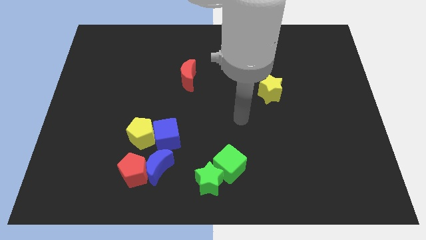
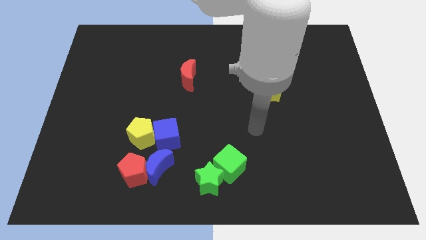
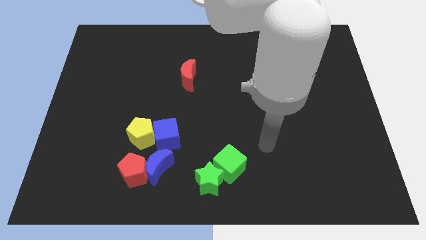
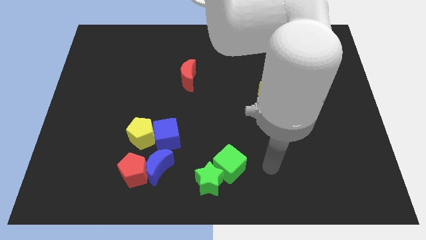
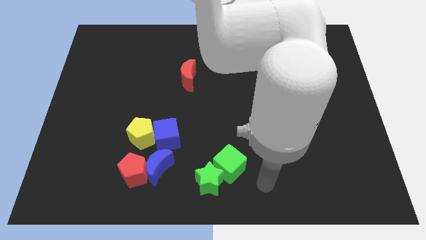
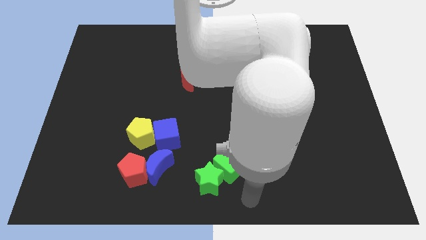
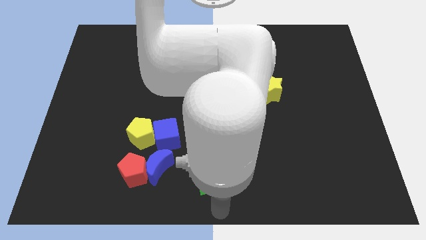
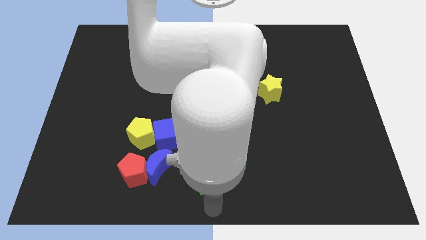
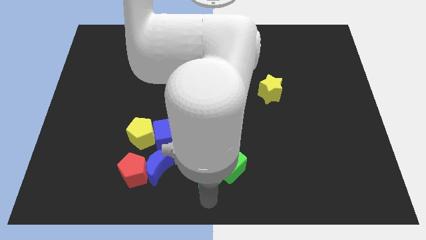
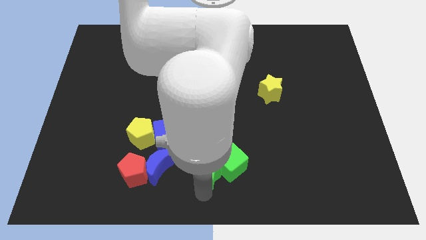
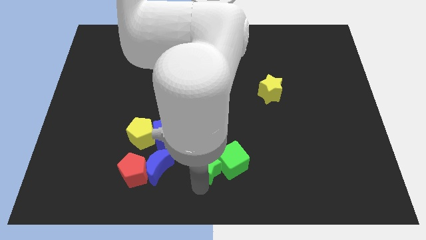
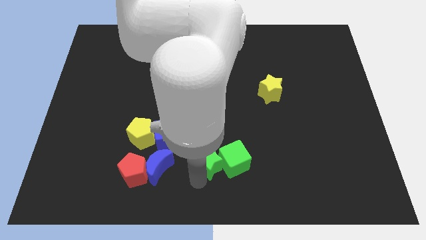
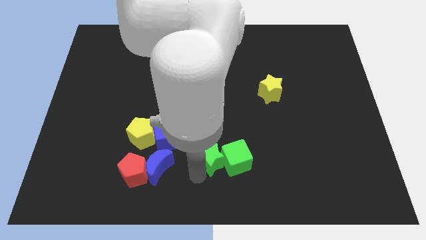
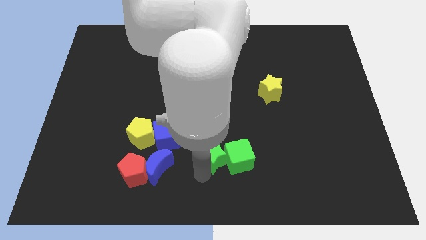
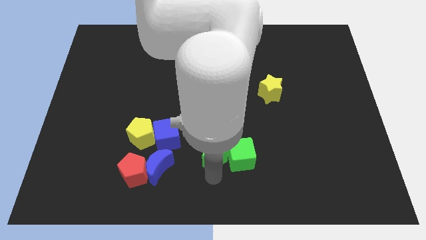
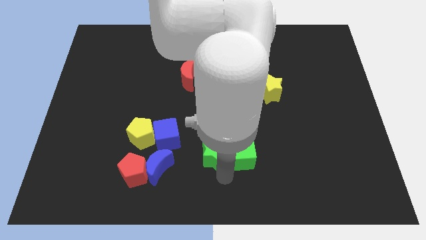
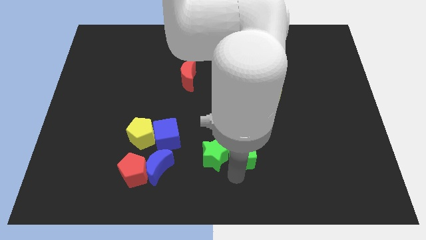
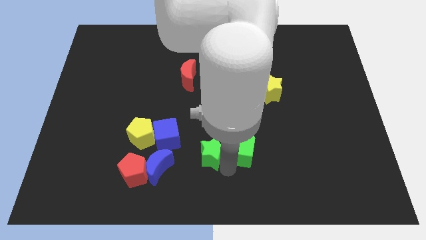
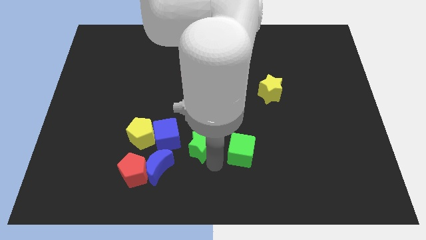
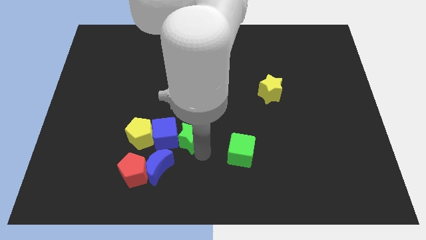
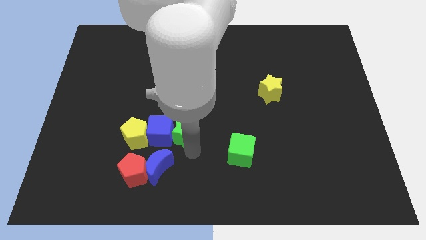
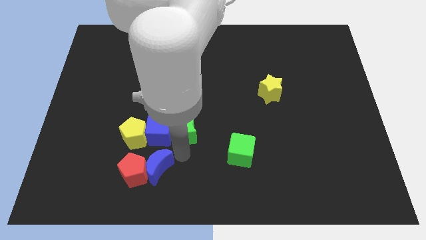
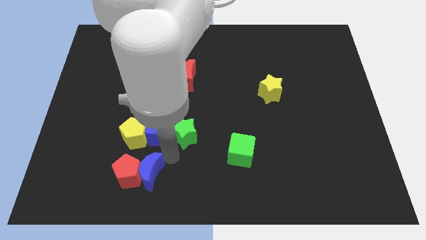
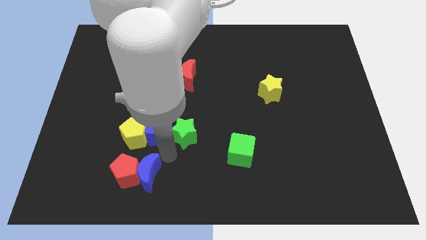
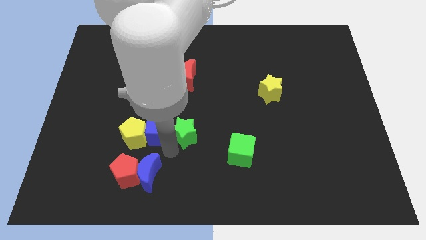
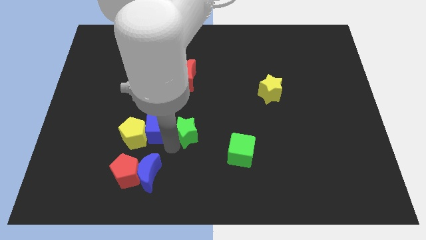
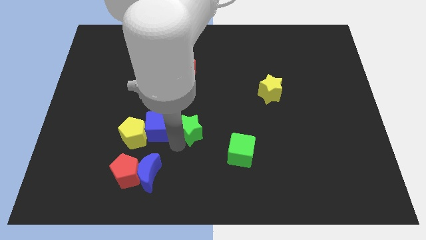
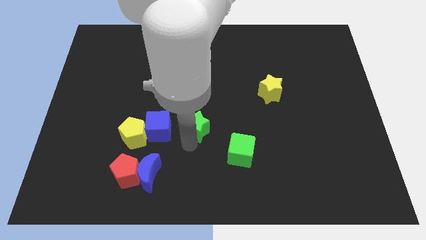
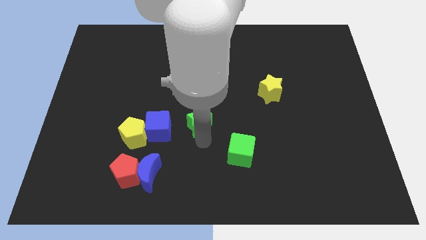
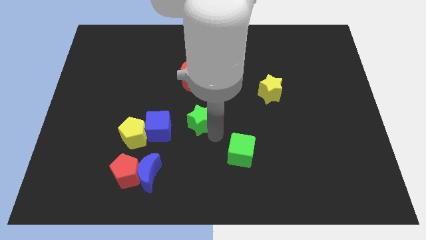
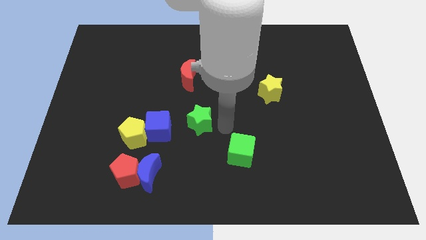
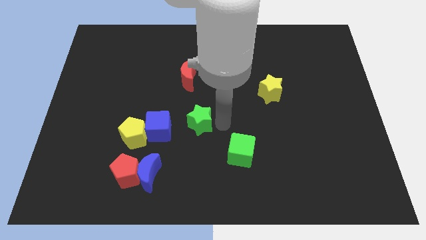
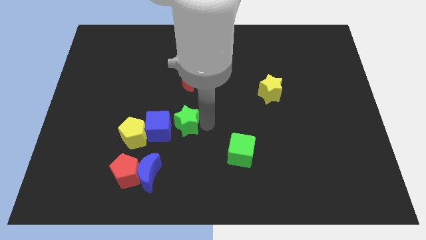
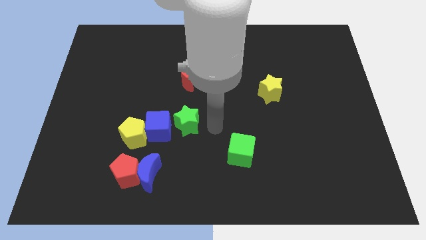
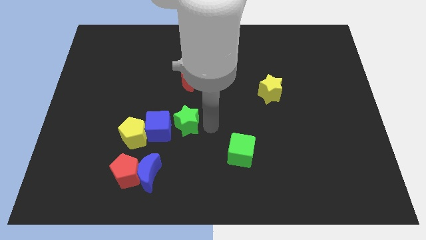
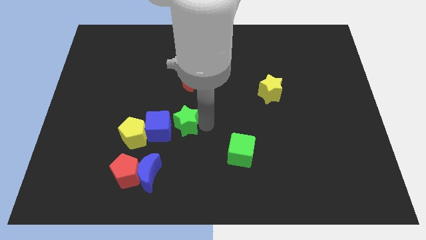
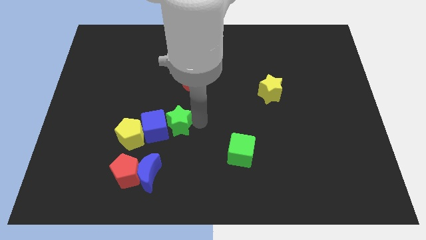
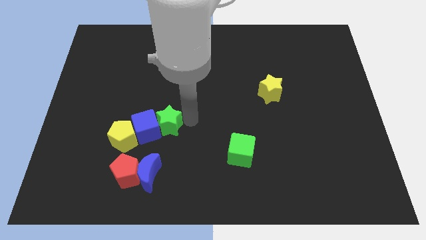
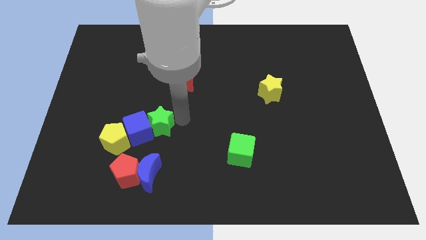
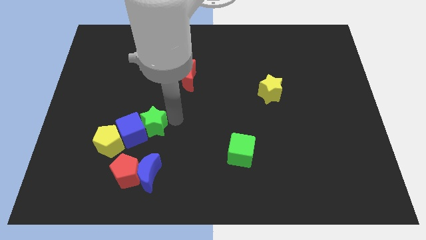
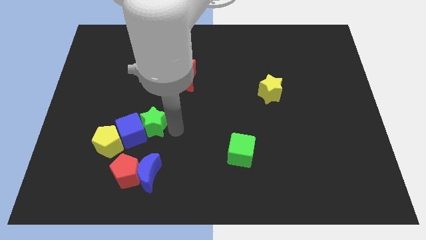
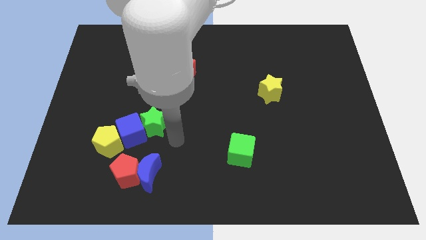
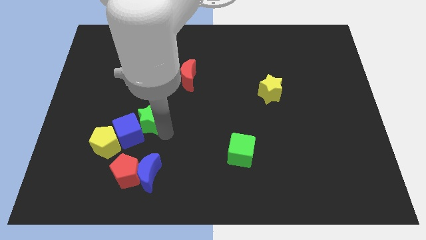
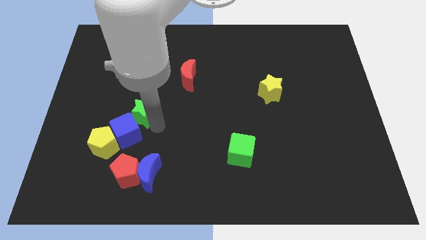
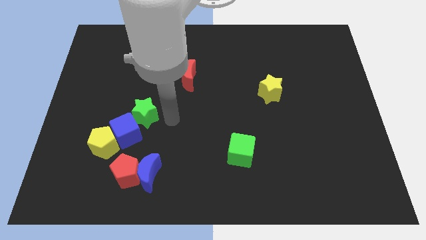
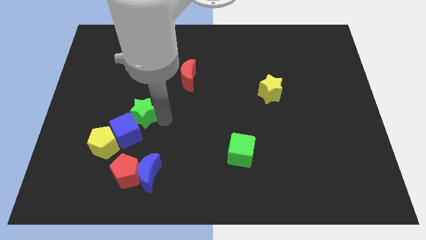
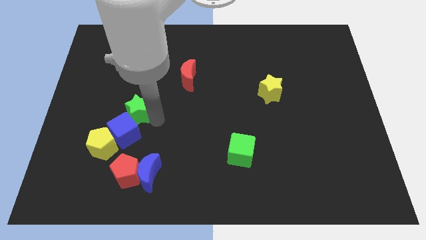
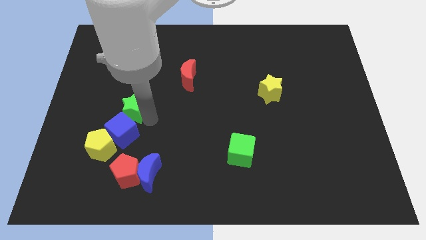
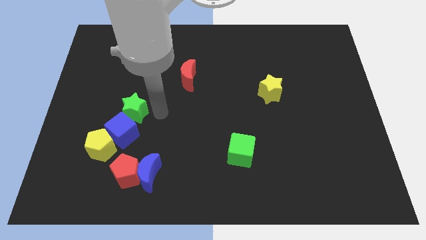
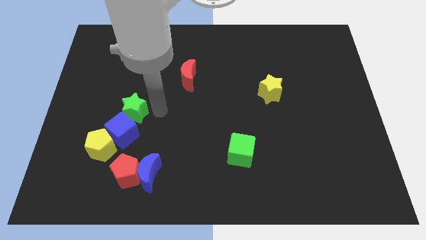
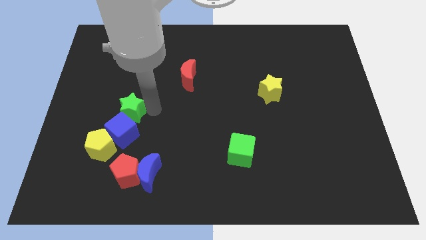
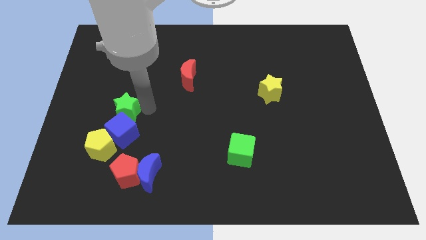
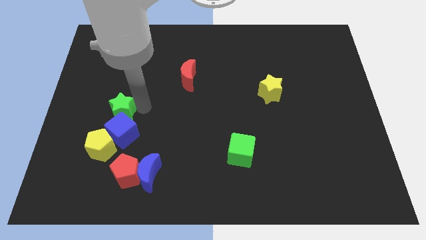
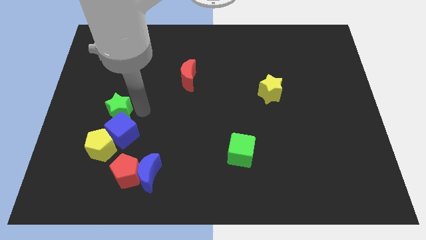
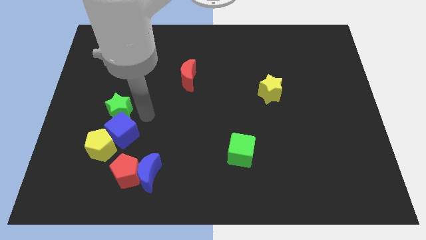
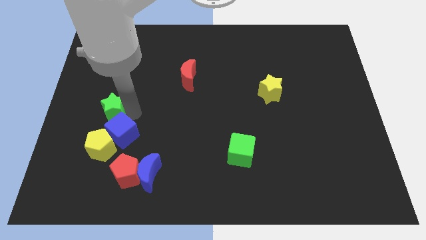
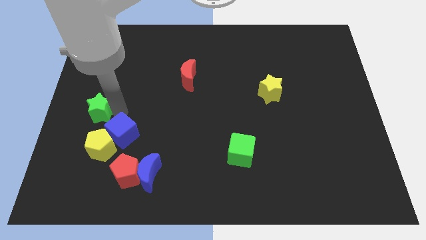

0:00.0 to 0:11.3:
slide the green star to the left side

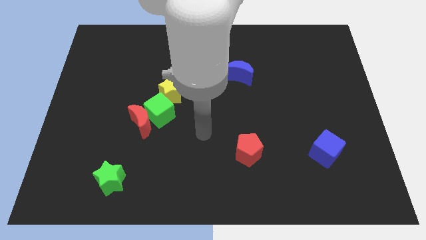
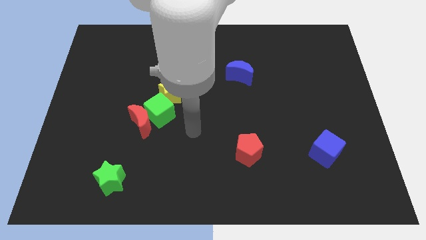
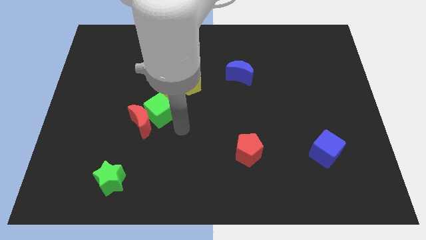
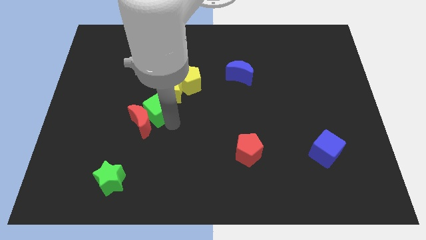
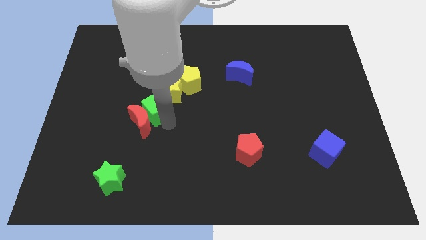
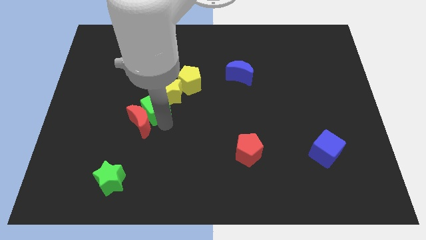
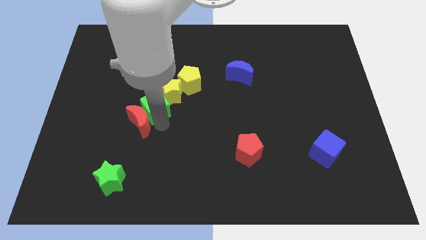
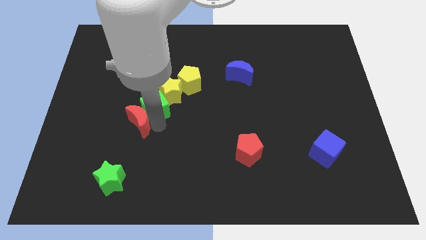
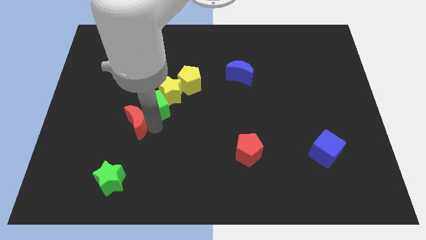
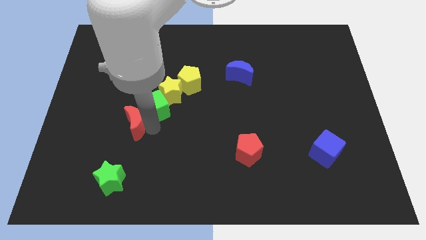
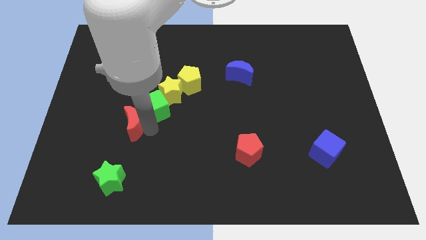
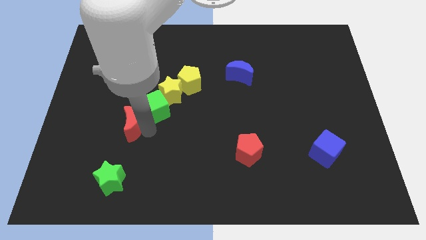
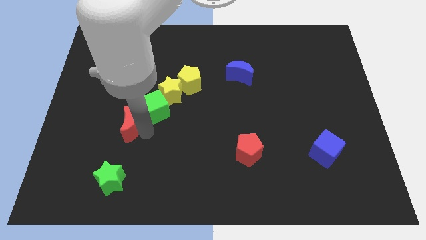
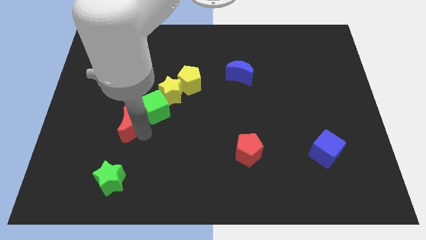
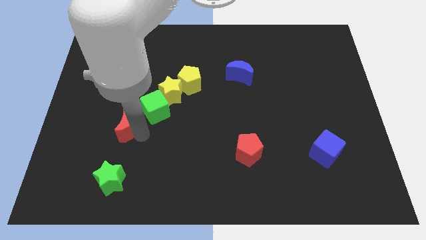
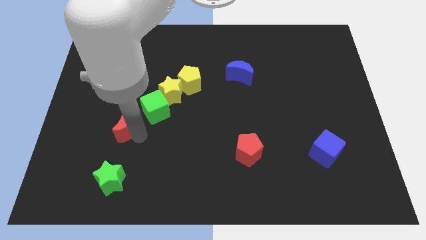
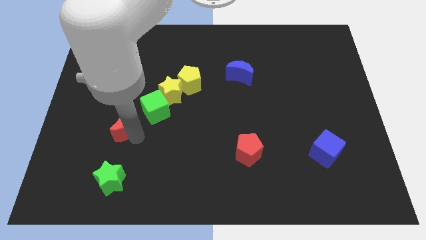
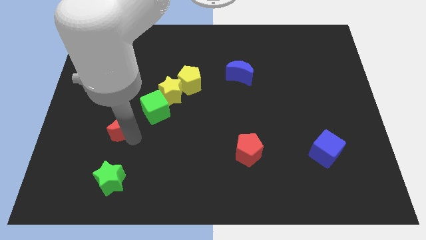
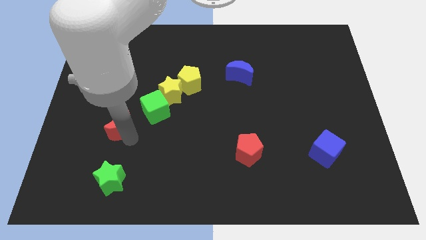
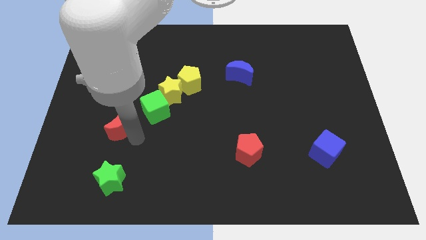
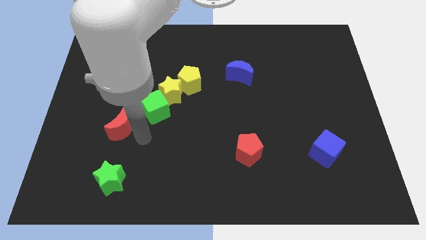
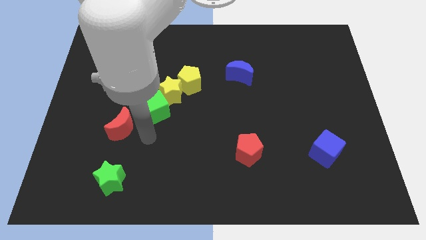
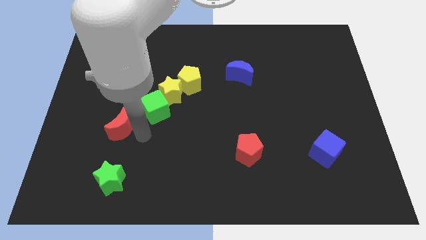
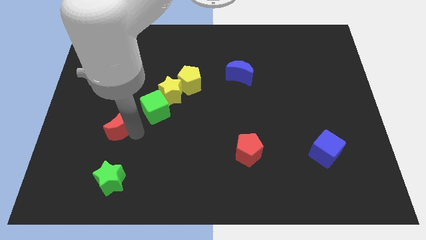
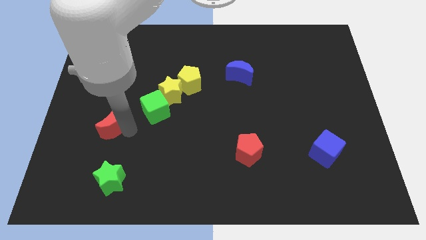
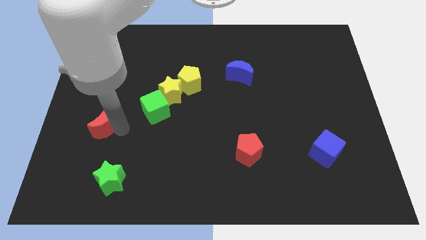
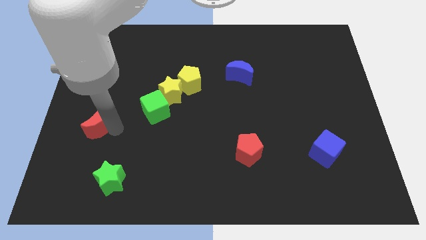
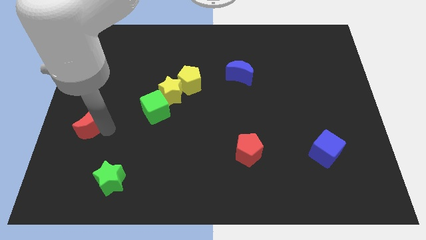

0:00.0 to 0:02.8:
push the red moon to the center left
